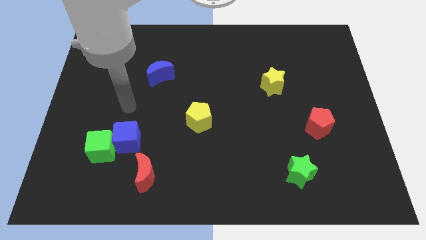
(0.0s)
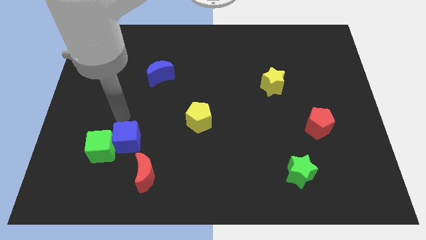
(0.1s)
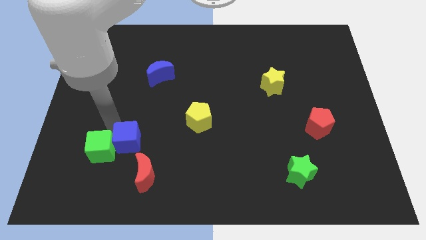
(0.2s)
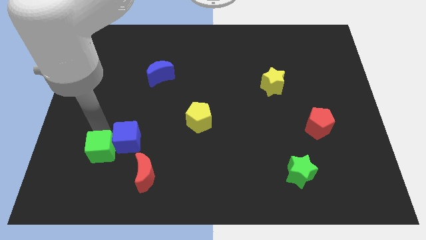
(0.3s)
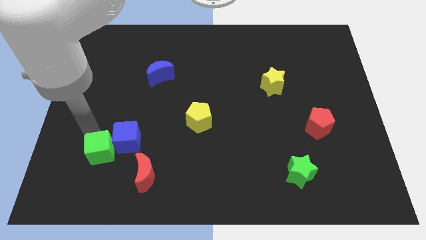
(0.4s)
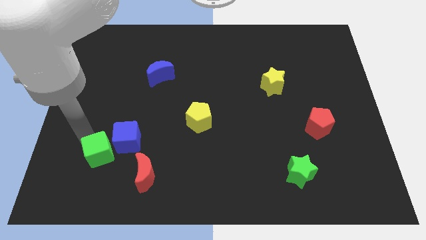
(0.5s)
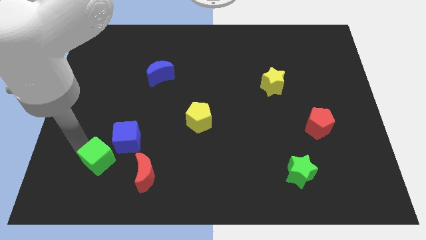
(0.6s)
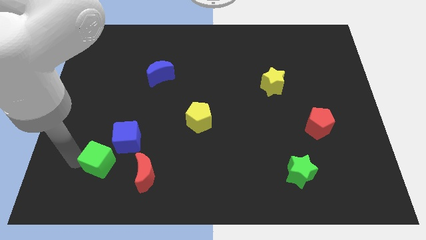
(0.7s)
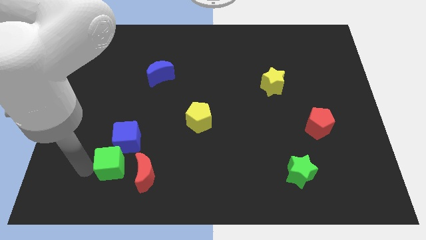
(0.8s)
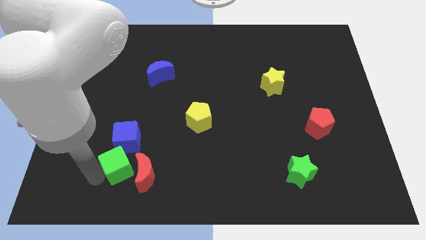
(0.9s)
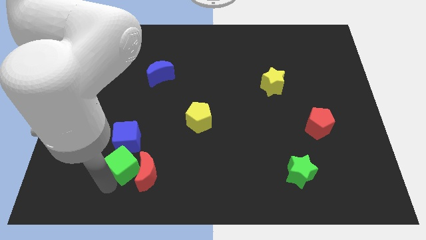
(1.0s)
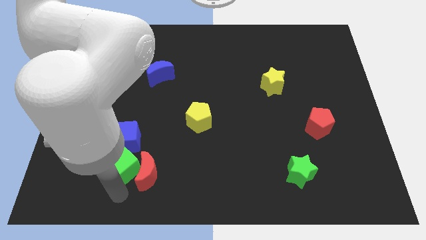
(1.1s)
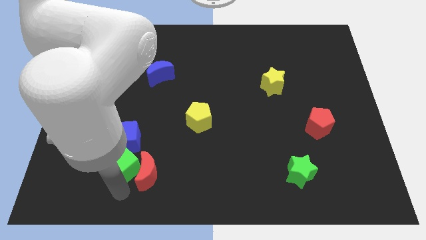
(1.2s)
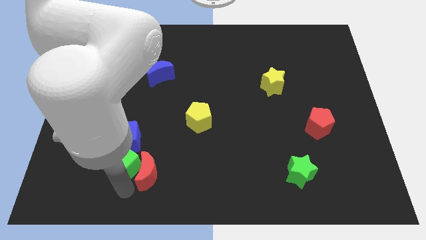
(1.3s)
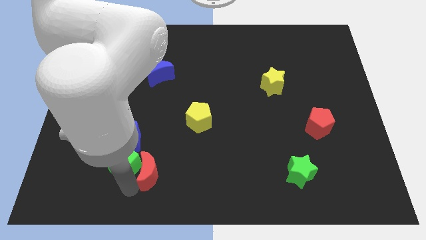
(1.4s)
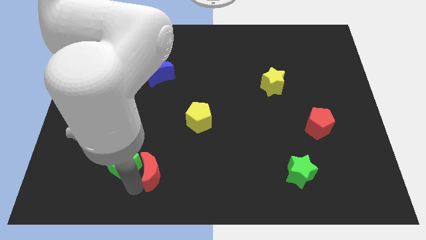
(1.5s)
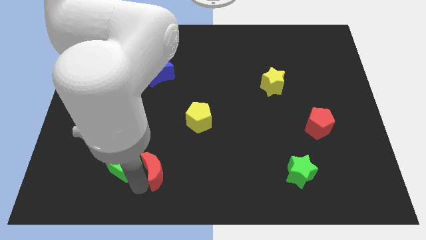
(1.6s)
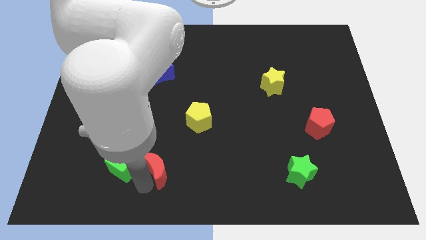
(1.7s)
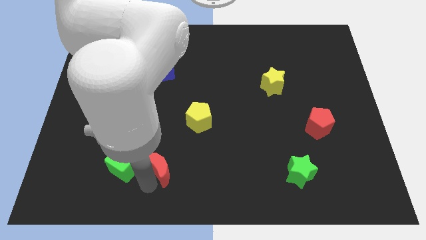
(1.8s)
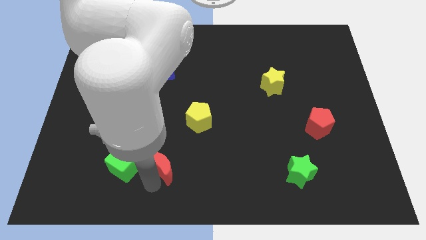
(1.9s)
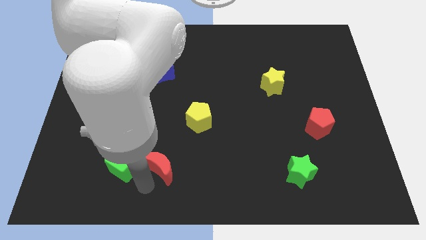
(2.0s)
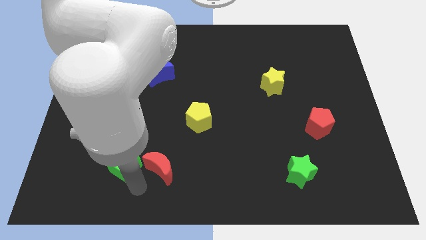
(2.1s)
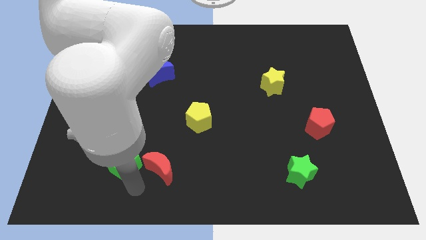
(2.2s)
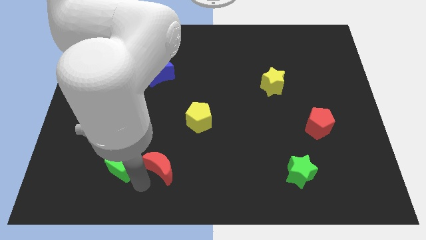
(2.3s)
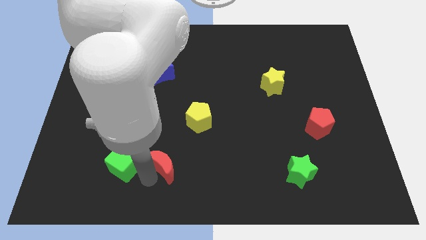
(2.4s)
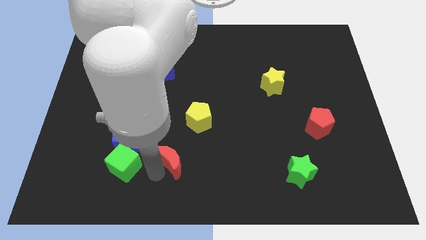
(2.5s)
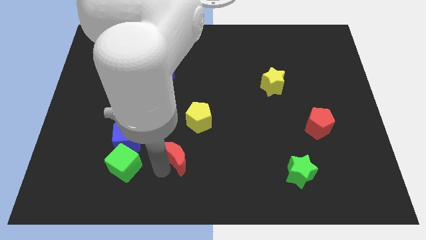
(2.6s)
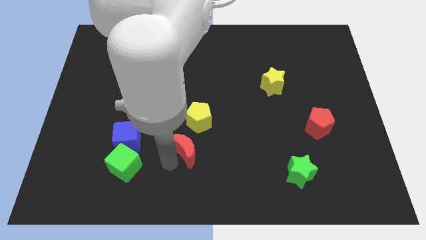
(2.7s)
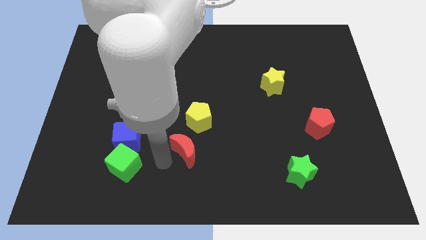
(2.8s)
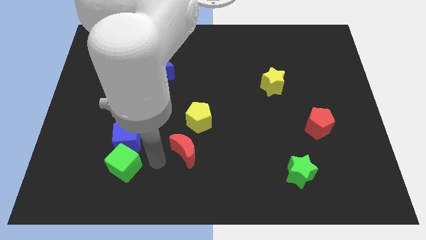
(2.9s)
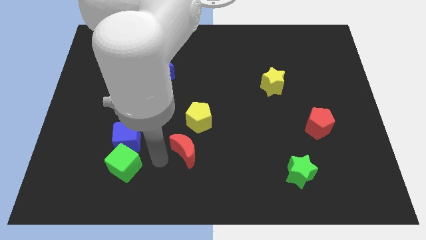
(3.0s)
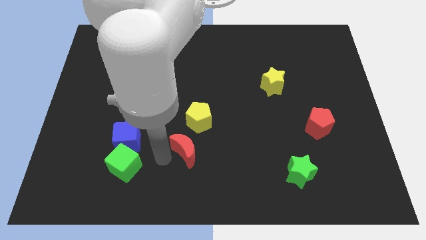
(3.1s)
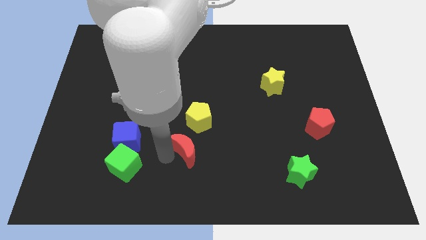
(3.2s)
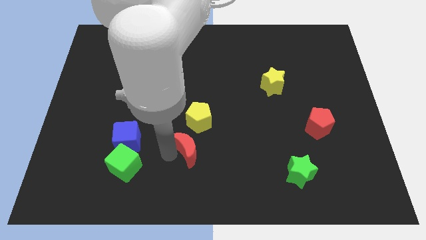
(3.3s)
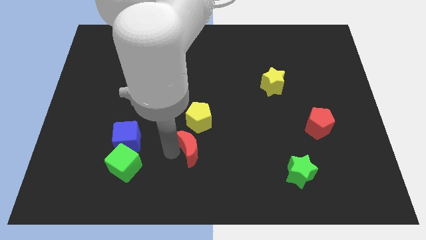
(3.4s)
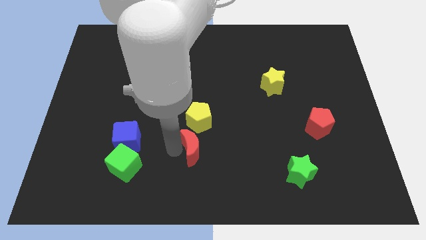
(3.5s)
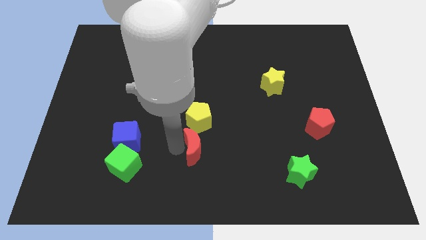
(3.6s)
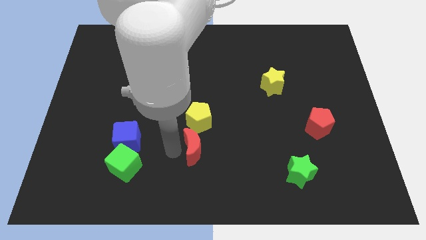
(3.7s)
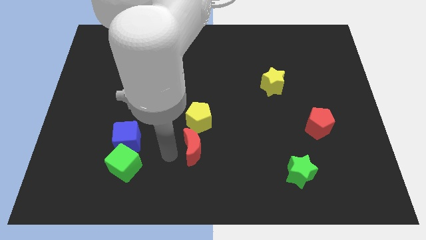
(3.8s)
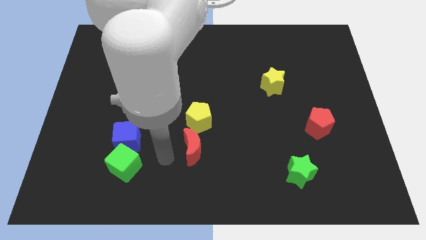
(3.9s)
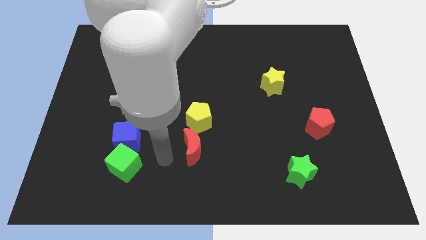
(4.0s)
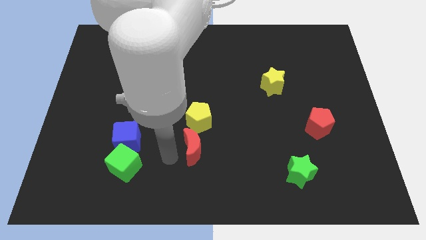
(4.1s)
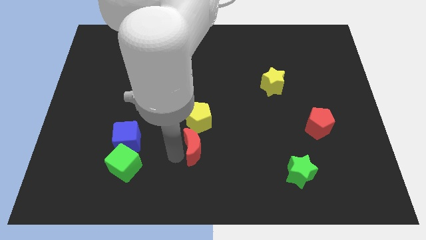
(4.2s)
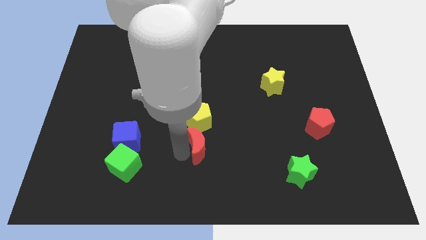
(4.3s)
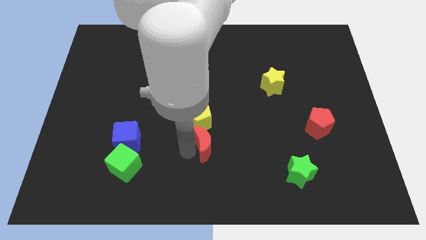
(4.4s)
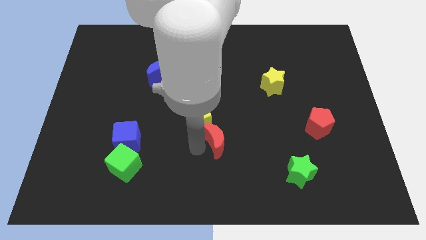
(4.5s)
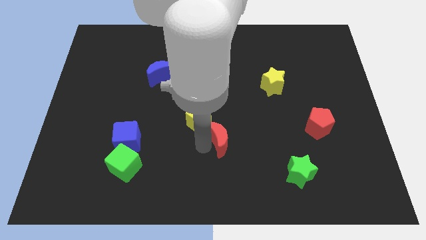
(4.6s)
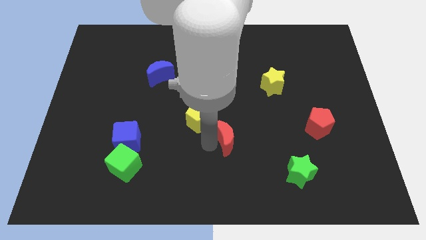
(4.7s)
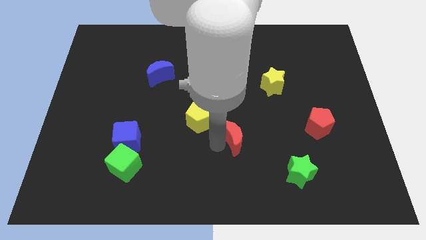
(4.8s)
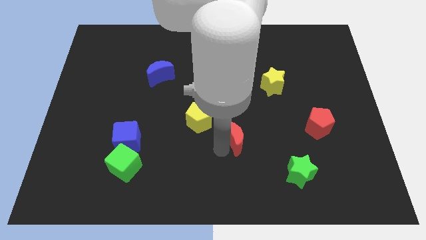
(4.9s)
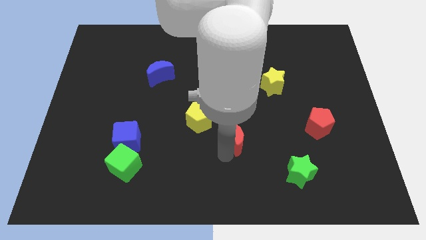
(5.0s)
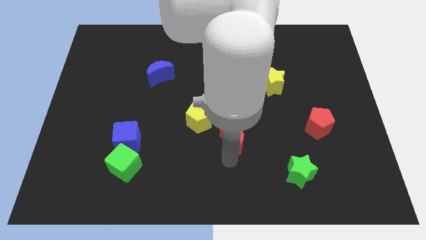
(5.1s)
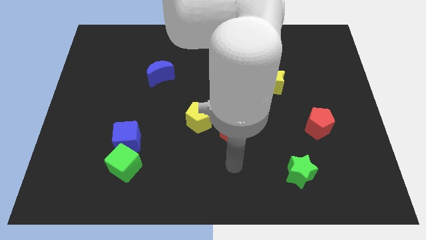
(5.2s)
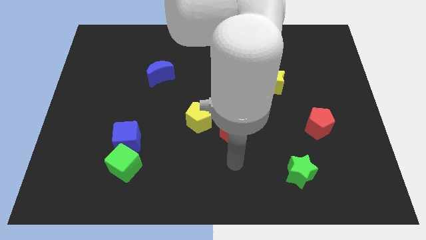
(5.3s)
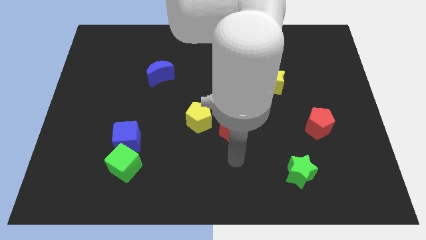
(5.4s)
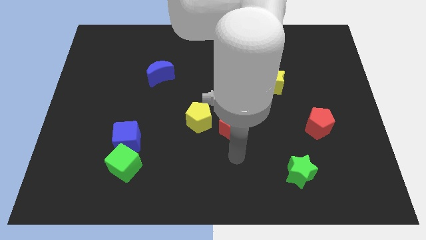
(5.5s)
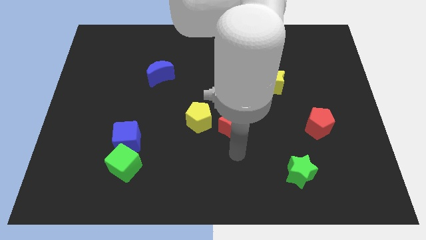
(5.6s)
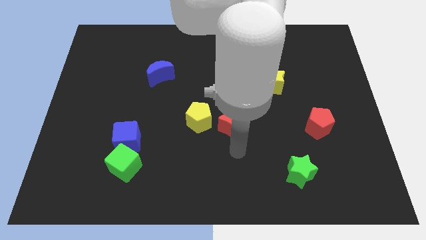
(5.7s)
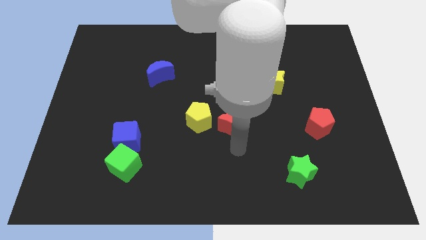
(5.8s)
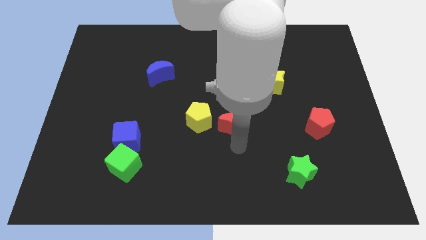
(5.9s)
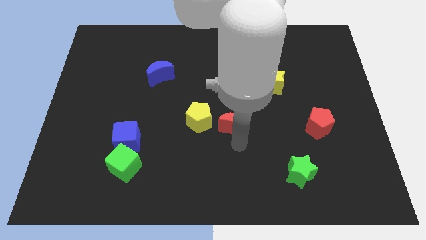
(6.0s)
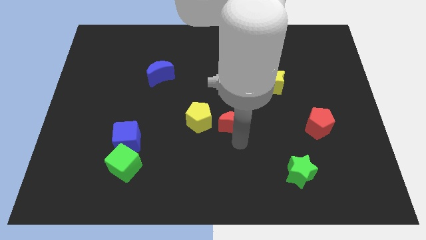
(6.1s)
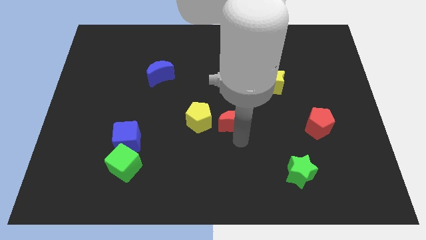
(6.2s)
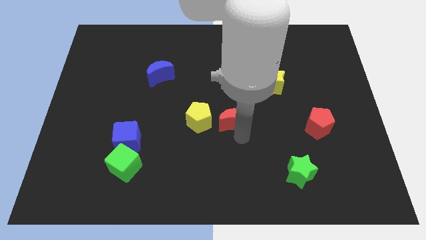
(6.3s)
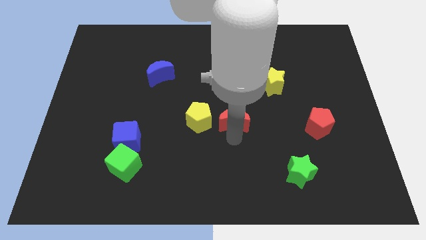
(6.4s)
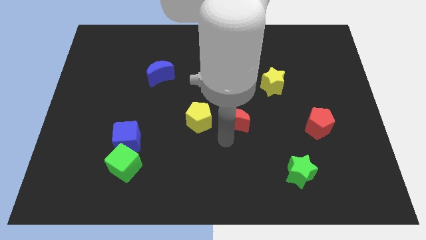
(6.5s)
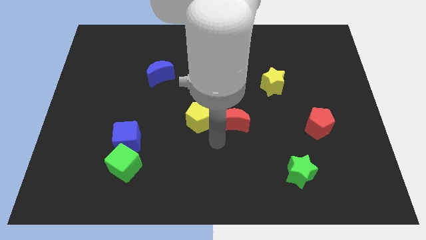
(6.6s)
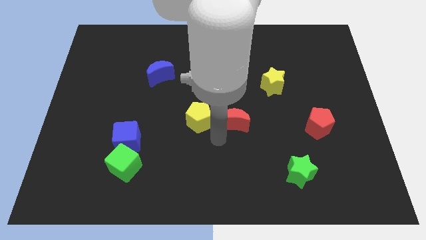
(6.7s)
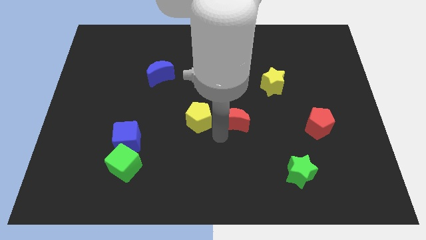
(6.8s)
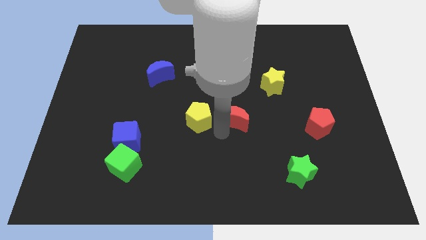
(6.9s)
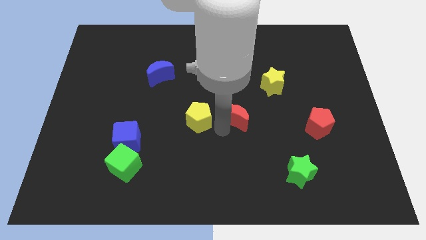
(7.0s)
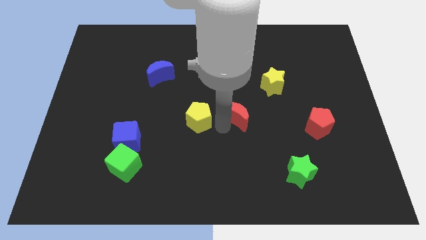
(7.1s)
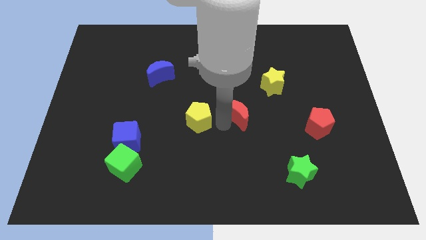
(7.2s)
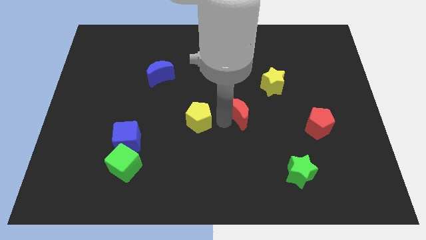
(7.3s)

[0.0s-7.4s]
put the red moon to the bottom left of the yellow star

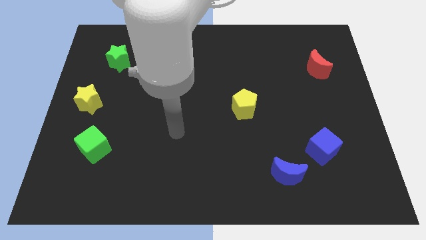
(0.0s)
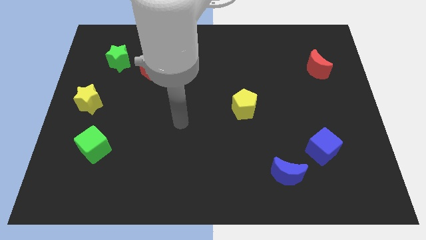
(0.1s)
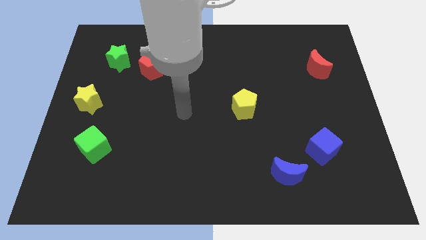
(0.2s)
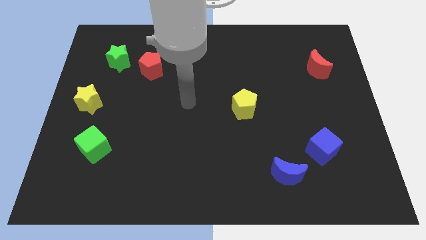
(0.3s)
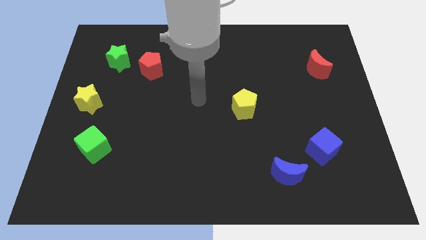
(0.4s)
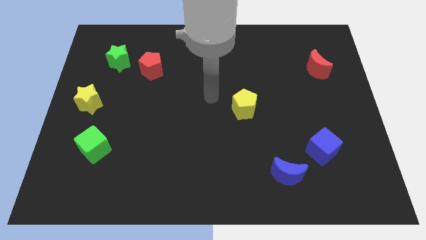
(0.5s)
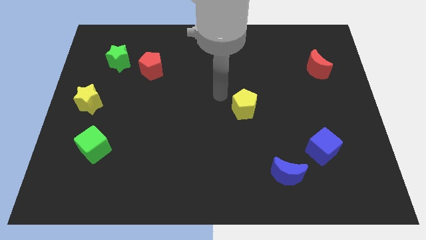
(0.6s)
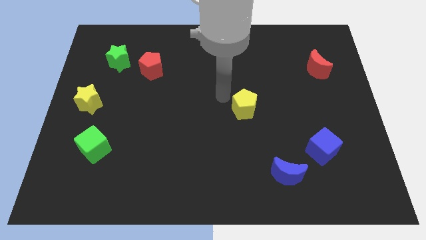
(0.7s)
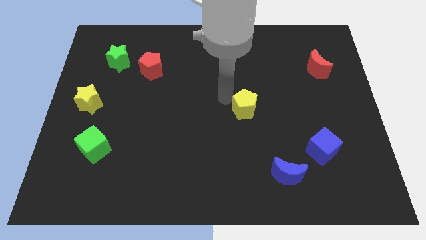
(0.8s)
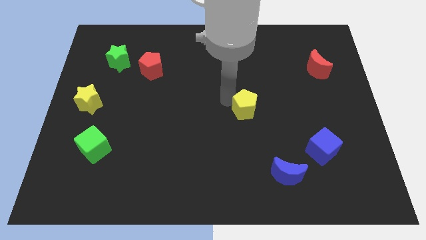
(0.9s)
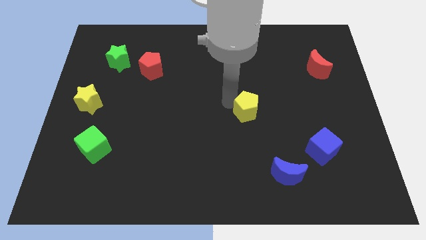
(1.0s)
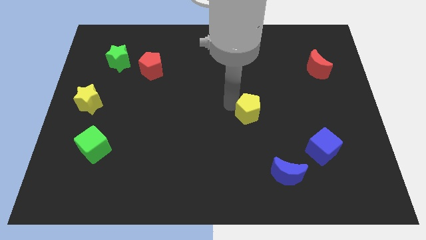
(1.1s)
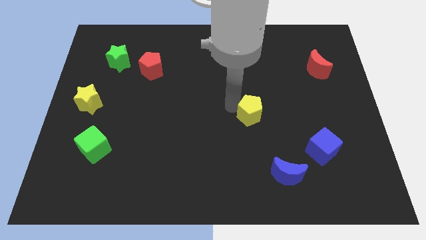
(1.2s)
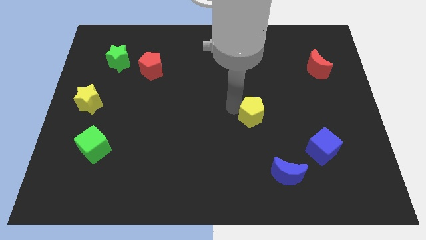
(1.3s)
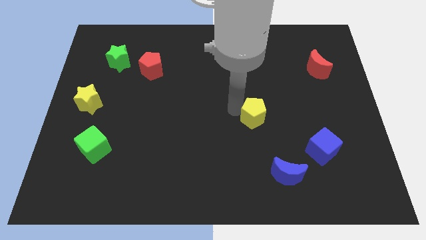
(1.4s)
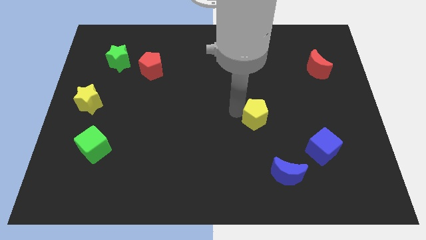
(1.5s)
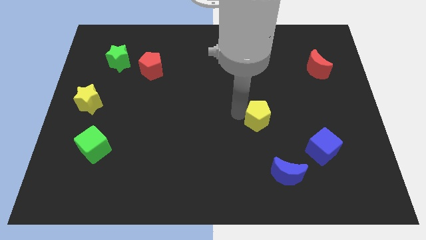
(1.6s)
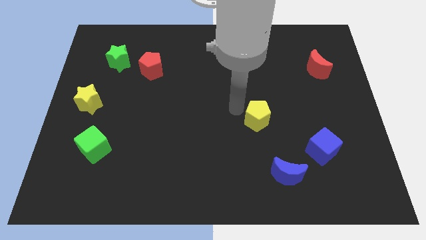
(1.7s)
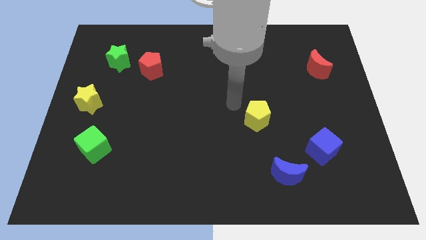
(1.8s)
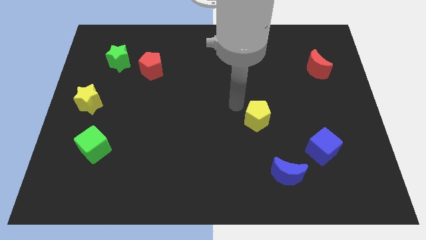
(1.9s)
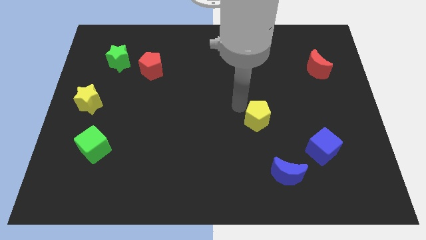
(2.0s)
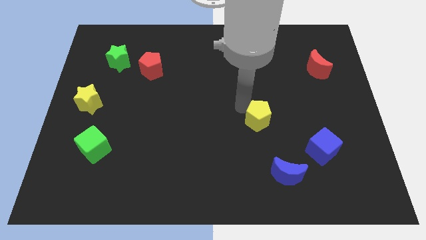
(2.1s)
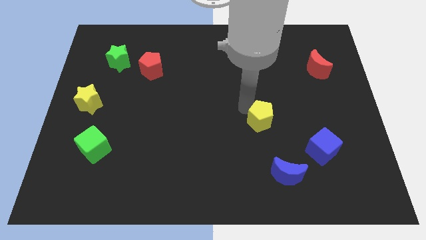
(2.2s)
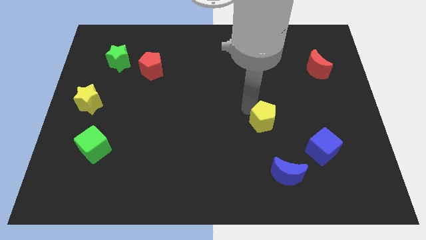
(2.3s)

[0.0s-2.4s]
push the yellow pentagon to the top of the blue moon
